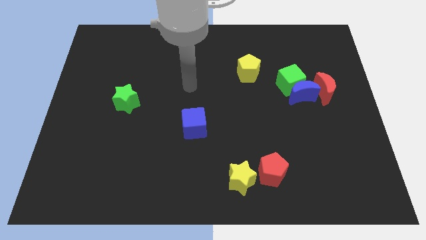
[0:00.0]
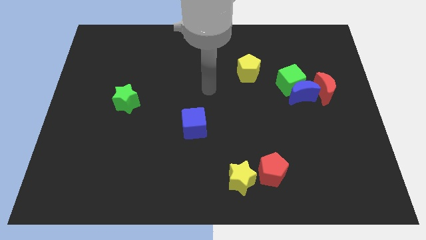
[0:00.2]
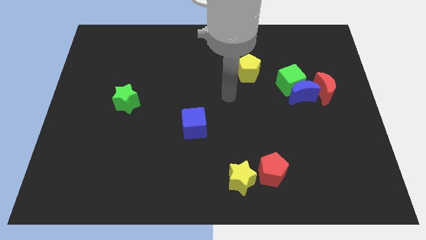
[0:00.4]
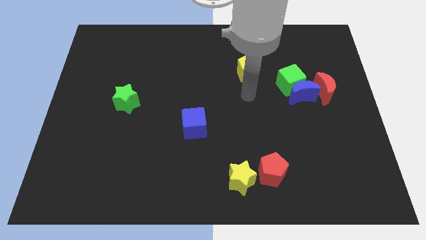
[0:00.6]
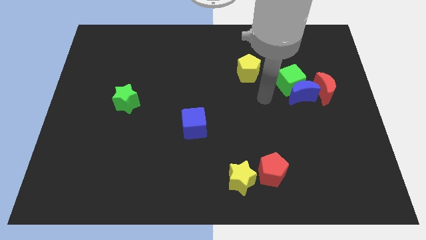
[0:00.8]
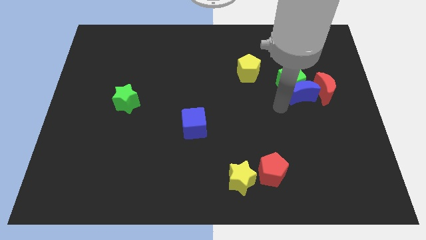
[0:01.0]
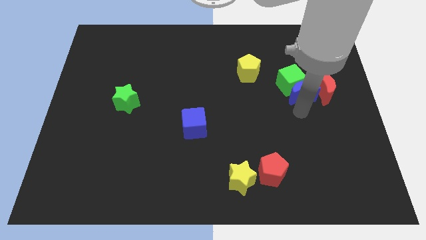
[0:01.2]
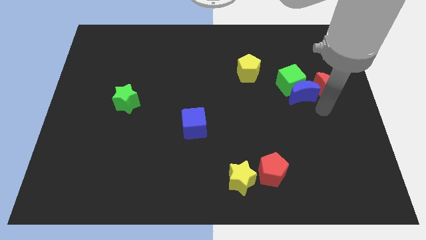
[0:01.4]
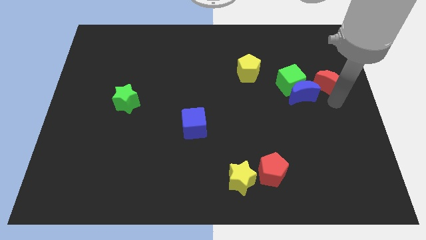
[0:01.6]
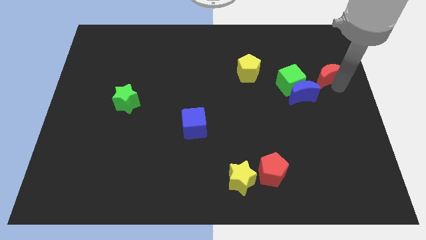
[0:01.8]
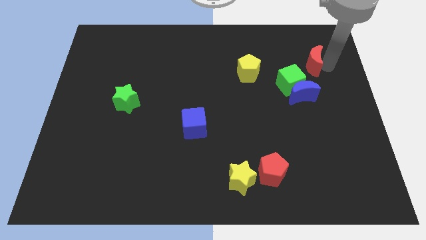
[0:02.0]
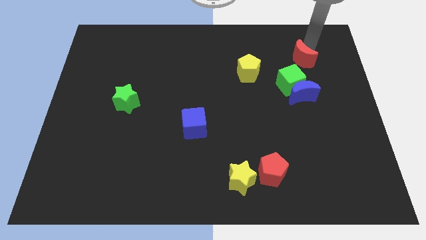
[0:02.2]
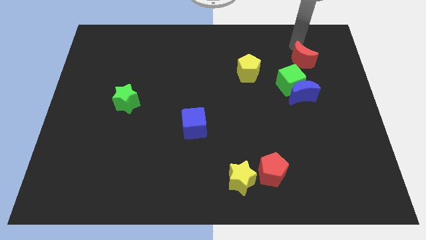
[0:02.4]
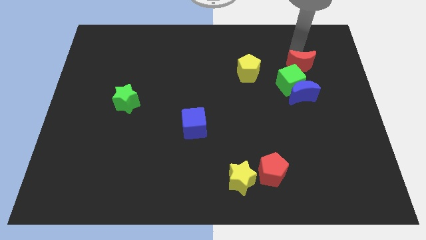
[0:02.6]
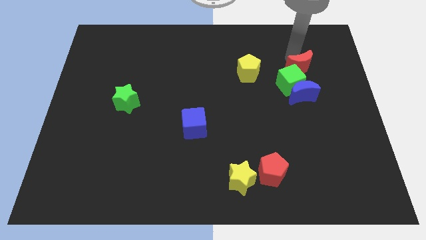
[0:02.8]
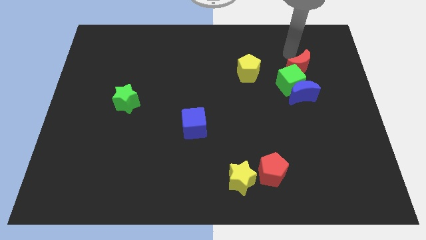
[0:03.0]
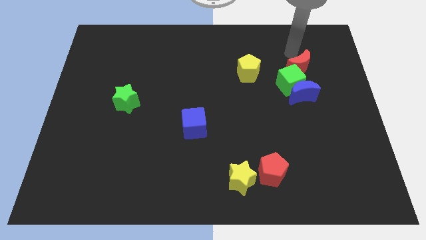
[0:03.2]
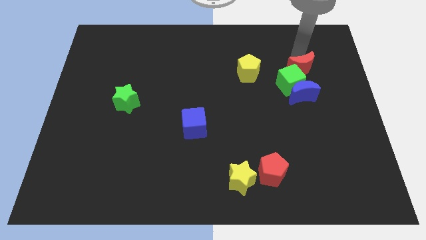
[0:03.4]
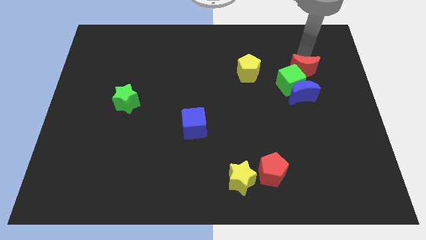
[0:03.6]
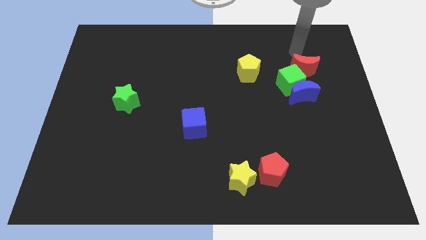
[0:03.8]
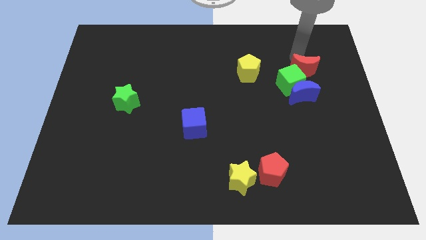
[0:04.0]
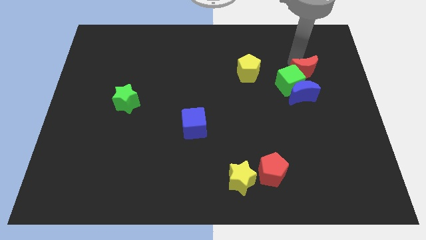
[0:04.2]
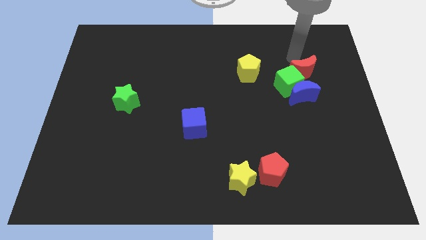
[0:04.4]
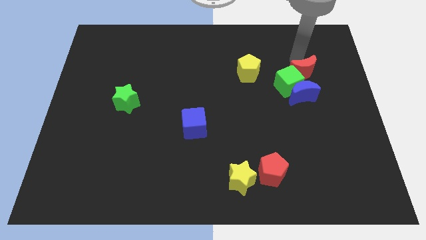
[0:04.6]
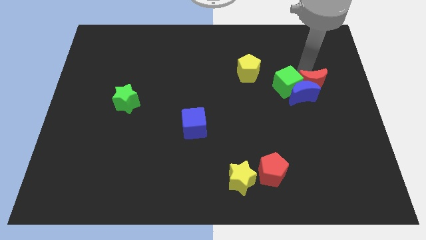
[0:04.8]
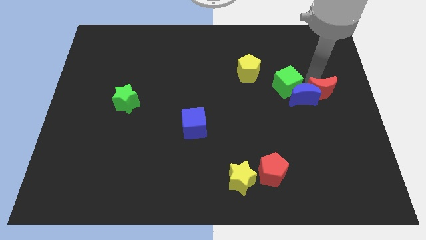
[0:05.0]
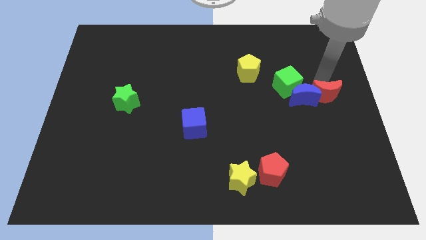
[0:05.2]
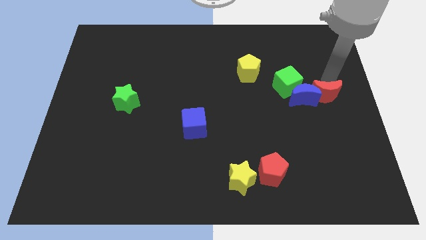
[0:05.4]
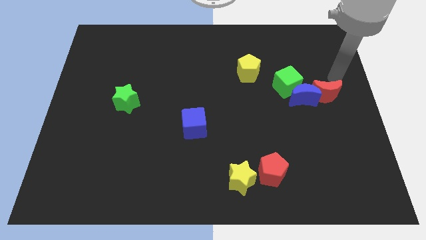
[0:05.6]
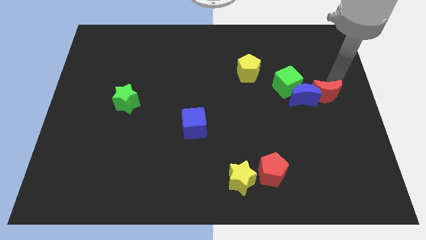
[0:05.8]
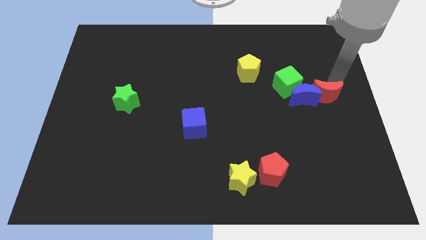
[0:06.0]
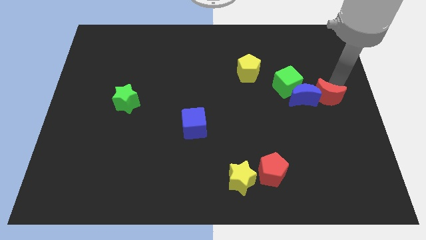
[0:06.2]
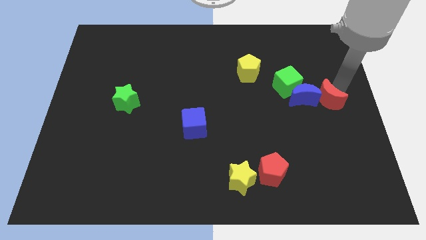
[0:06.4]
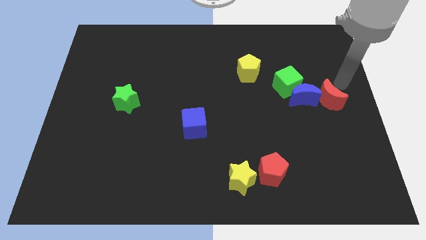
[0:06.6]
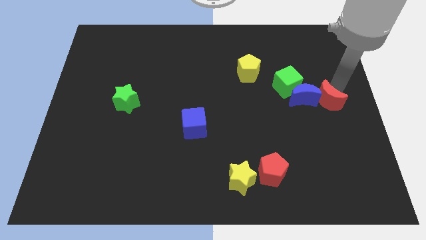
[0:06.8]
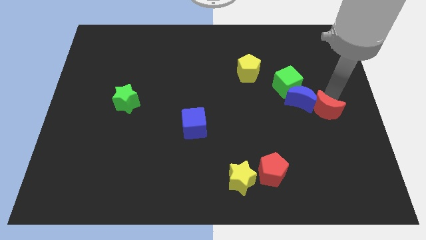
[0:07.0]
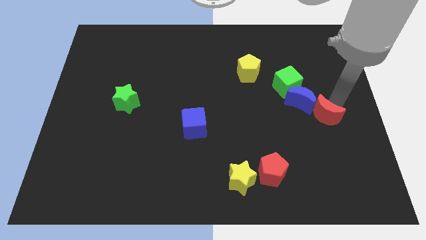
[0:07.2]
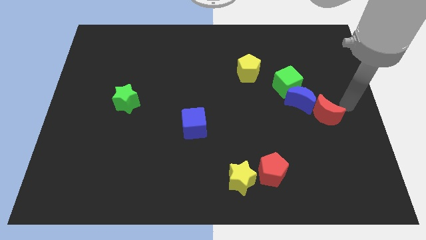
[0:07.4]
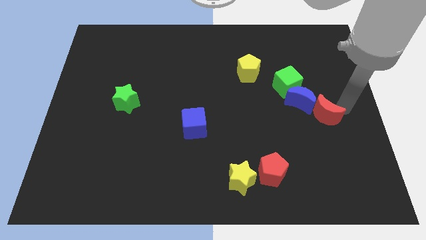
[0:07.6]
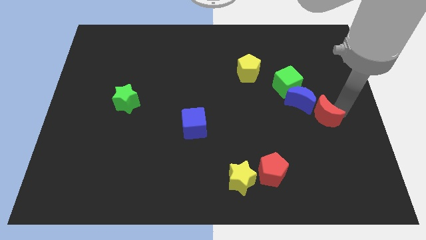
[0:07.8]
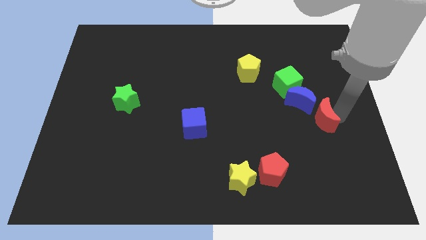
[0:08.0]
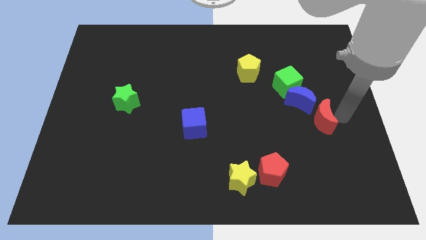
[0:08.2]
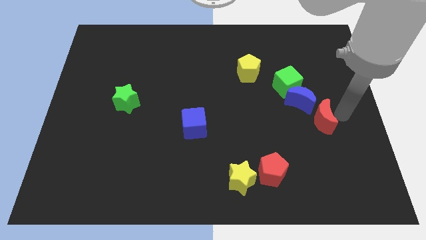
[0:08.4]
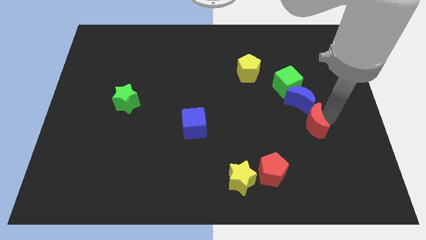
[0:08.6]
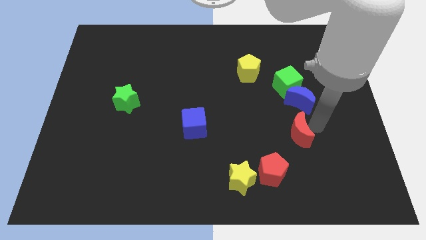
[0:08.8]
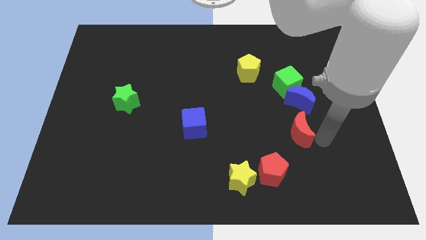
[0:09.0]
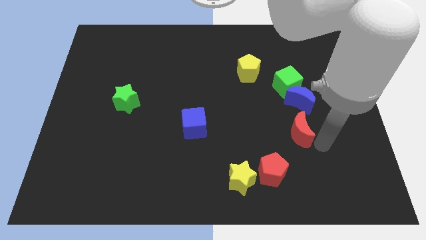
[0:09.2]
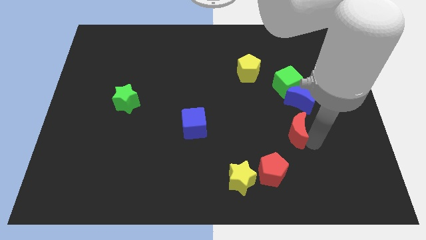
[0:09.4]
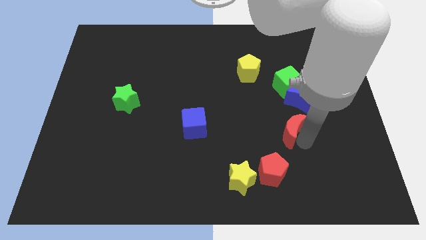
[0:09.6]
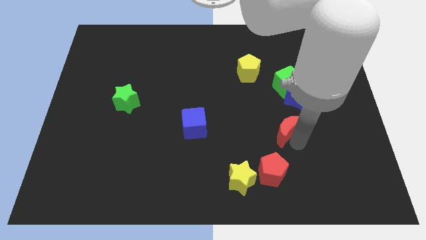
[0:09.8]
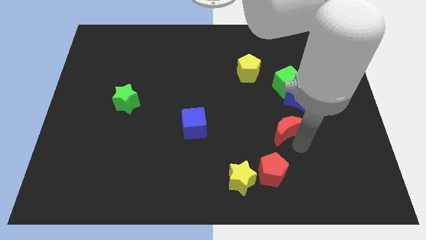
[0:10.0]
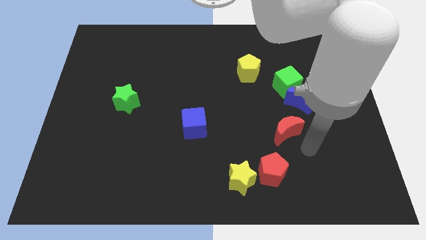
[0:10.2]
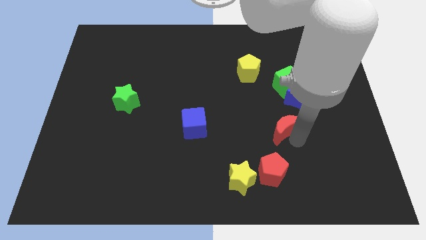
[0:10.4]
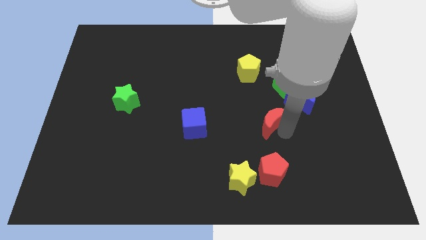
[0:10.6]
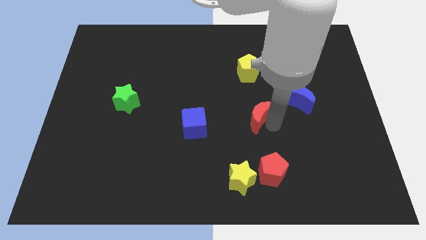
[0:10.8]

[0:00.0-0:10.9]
put the red moon to the center
